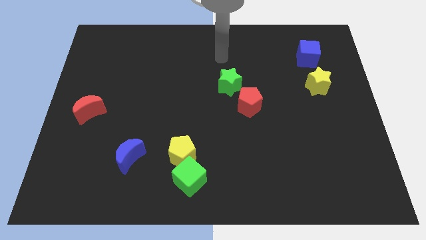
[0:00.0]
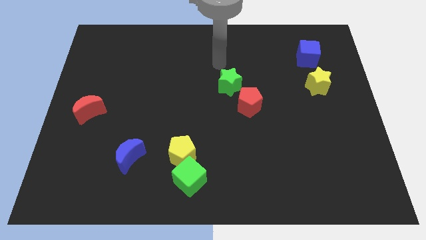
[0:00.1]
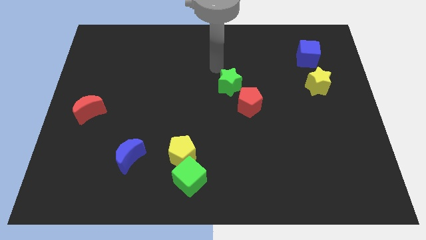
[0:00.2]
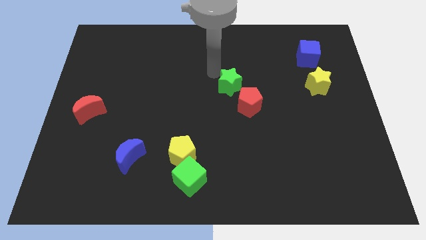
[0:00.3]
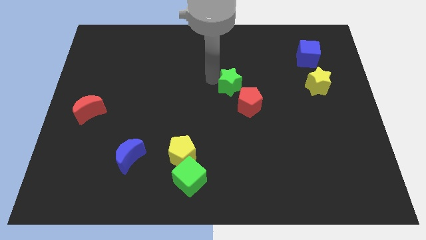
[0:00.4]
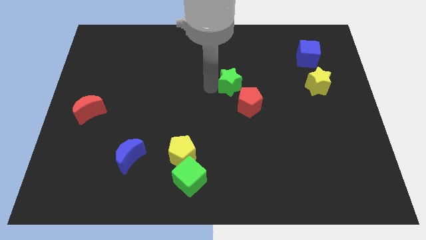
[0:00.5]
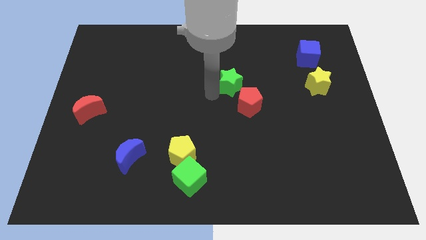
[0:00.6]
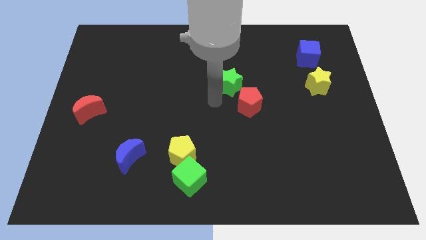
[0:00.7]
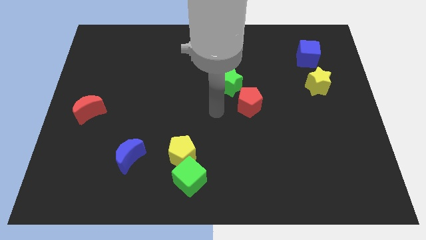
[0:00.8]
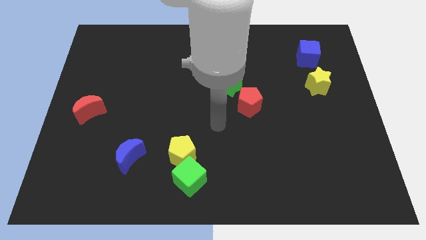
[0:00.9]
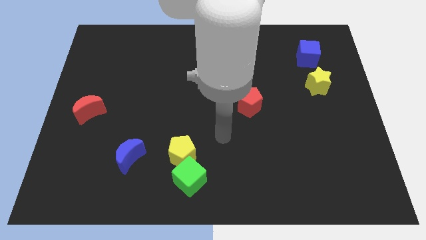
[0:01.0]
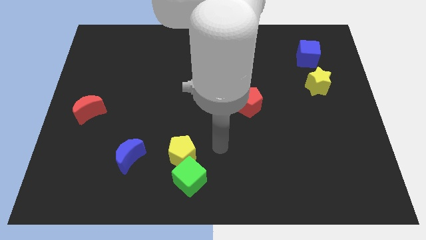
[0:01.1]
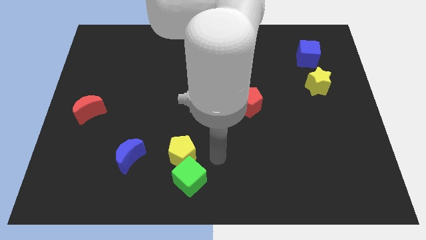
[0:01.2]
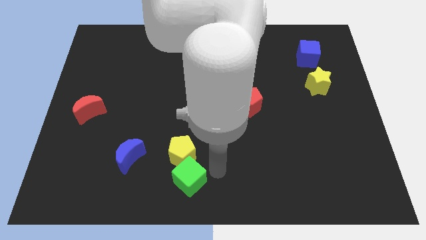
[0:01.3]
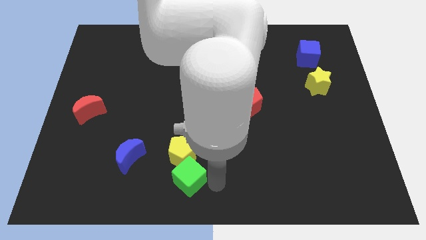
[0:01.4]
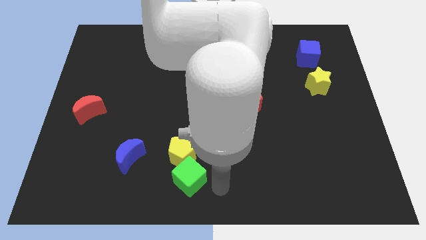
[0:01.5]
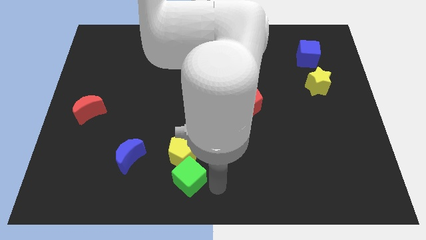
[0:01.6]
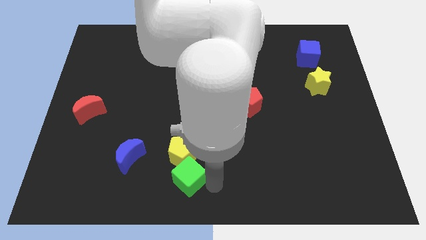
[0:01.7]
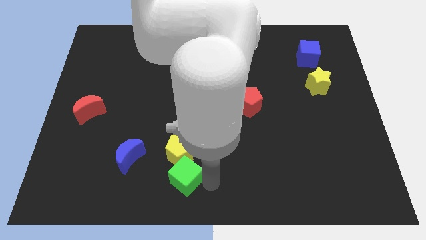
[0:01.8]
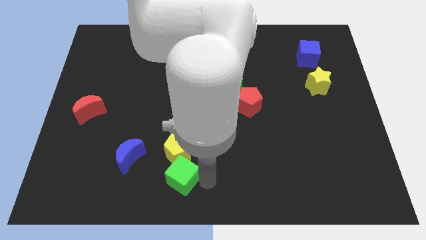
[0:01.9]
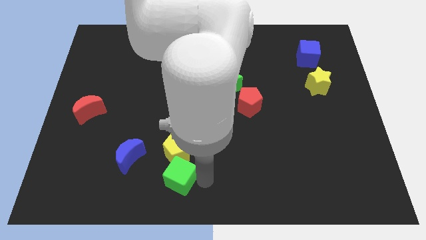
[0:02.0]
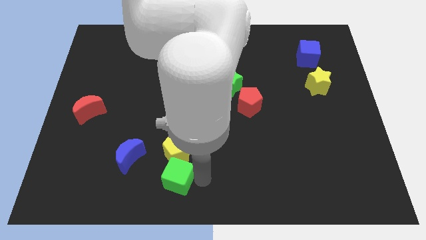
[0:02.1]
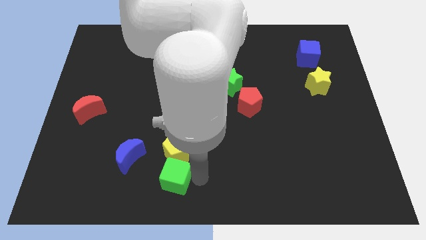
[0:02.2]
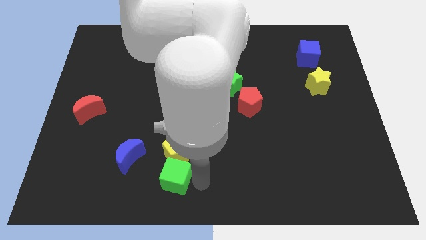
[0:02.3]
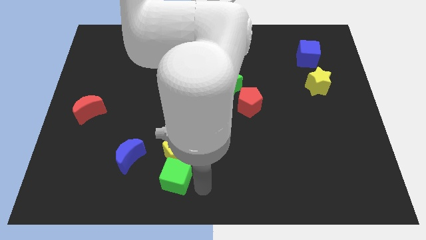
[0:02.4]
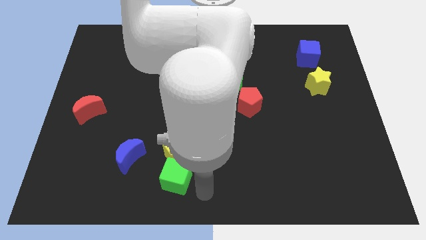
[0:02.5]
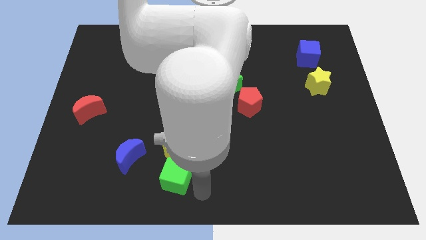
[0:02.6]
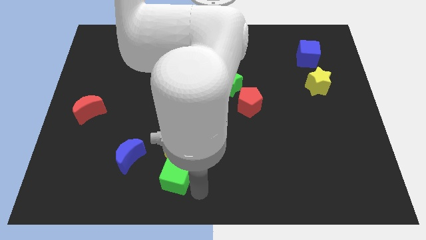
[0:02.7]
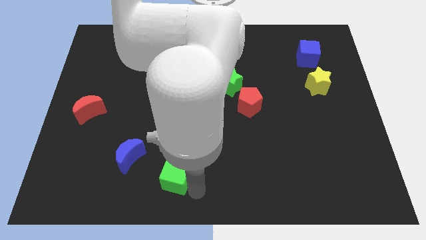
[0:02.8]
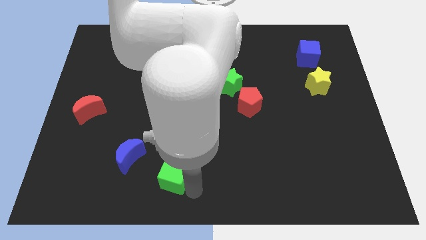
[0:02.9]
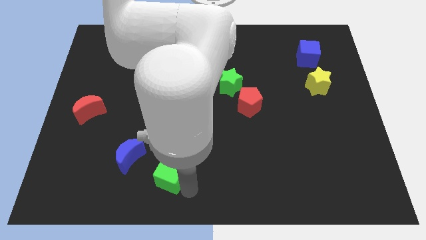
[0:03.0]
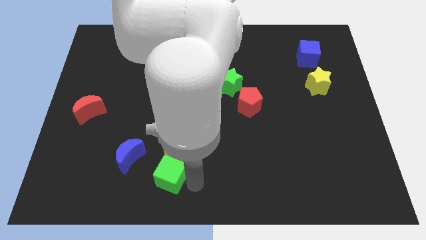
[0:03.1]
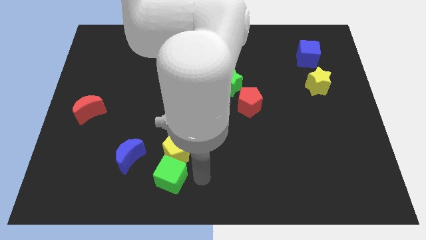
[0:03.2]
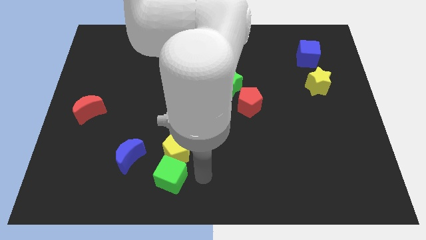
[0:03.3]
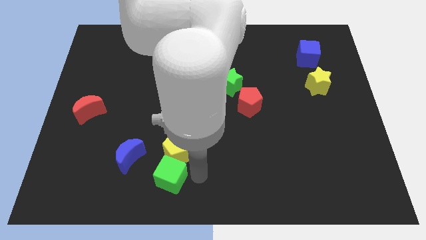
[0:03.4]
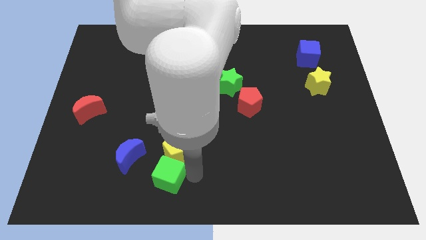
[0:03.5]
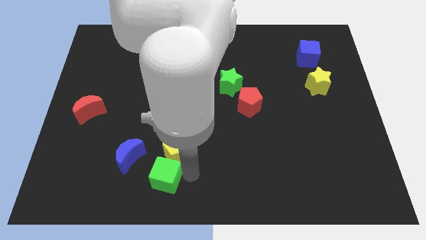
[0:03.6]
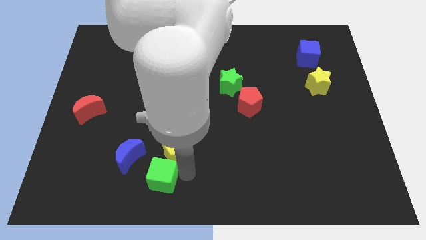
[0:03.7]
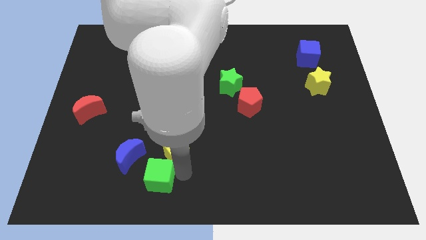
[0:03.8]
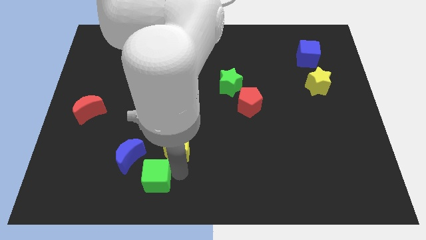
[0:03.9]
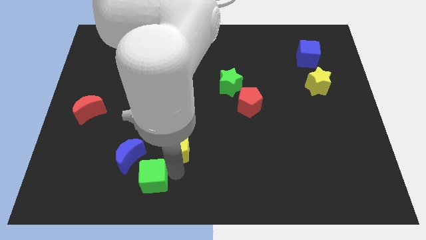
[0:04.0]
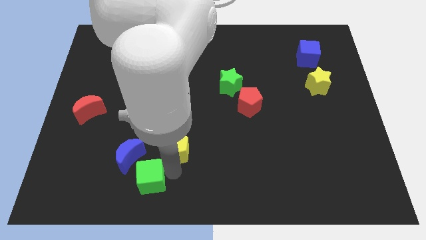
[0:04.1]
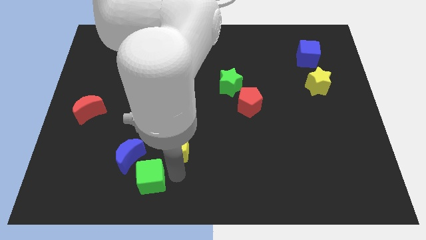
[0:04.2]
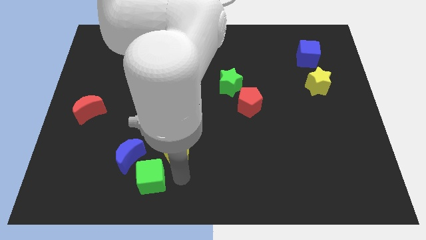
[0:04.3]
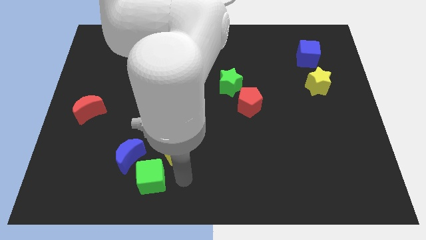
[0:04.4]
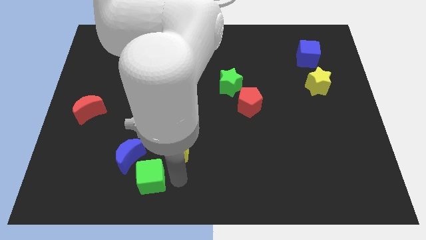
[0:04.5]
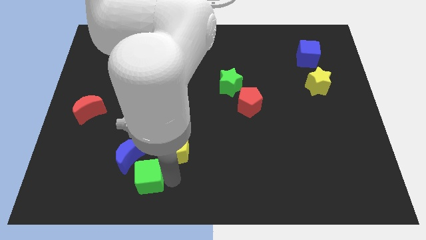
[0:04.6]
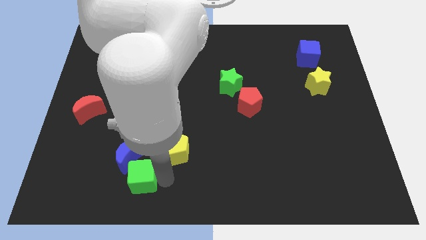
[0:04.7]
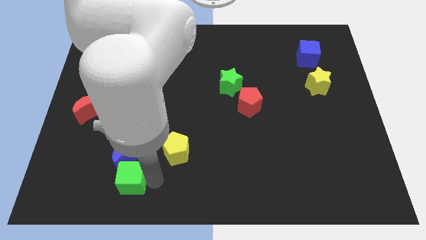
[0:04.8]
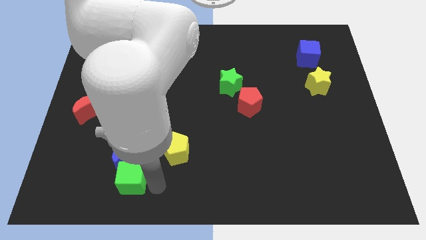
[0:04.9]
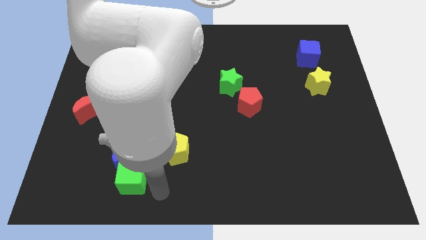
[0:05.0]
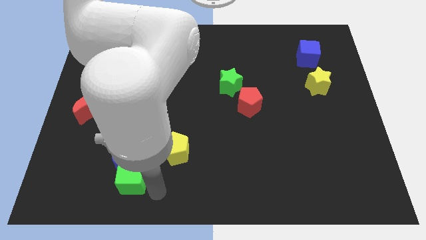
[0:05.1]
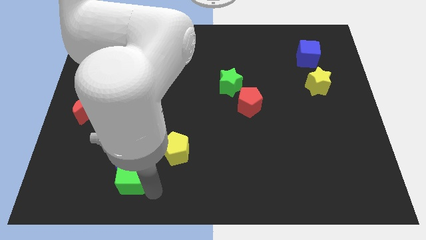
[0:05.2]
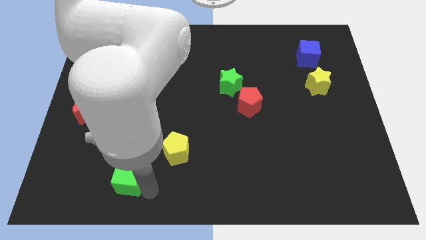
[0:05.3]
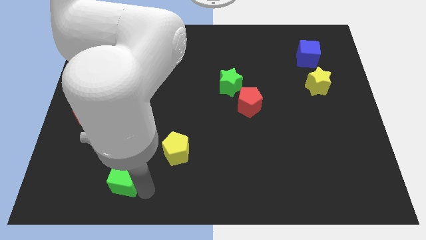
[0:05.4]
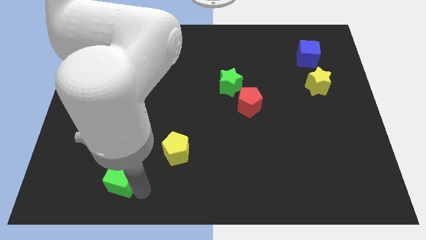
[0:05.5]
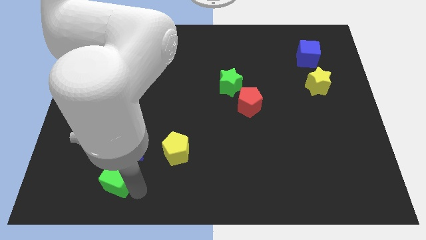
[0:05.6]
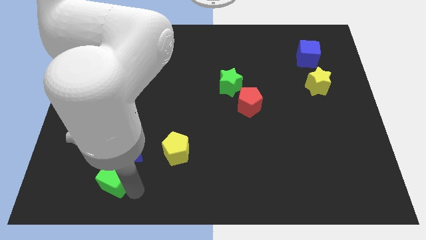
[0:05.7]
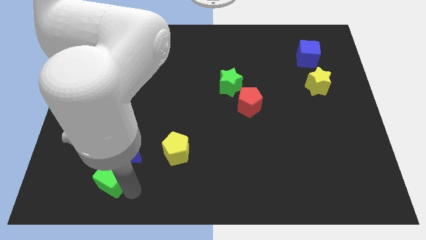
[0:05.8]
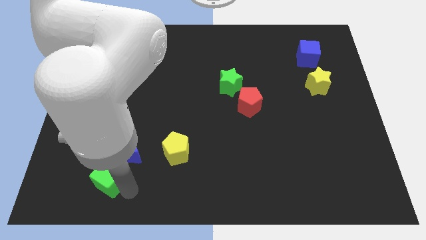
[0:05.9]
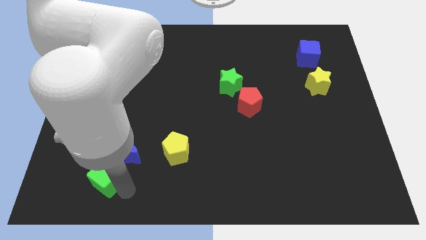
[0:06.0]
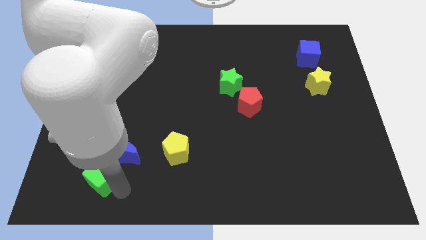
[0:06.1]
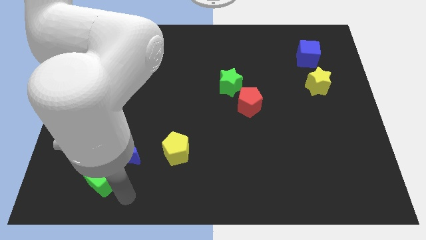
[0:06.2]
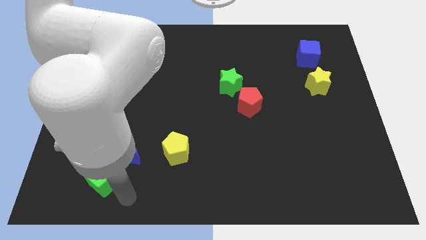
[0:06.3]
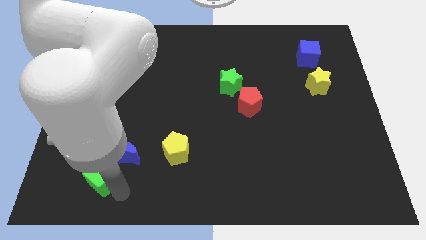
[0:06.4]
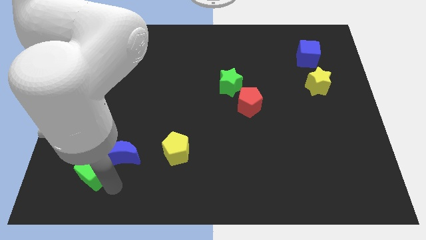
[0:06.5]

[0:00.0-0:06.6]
slide the green cube just left of the blue moon
